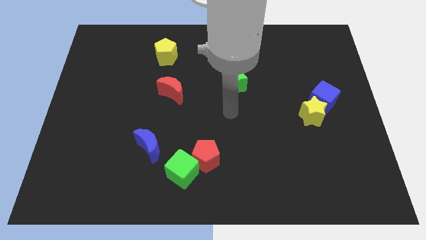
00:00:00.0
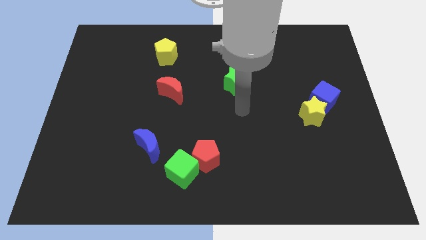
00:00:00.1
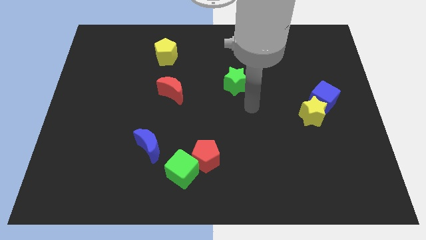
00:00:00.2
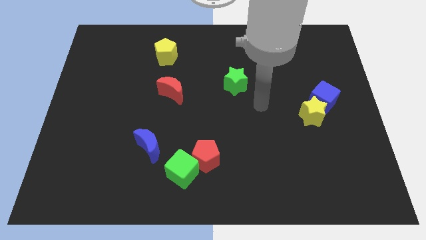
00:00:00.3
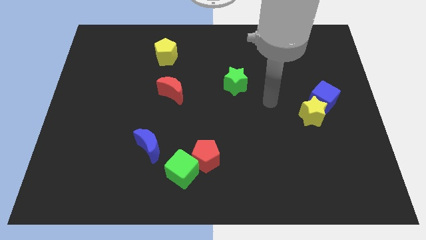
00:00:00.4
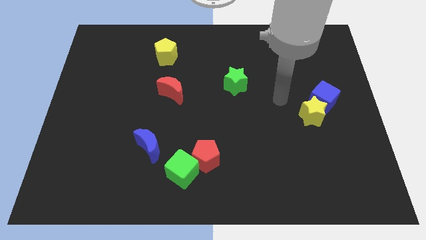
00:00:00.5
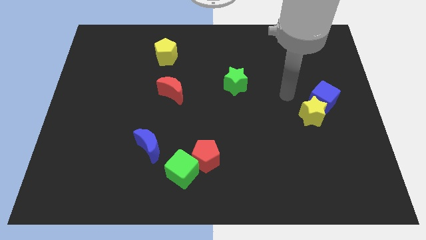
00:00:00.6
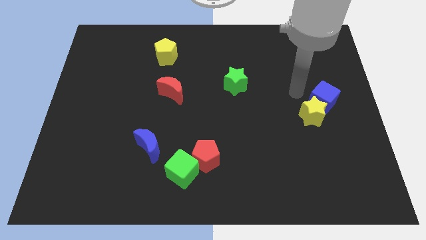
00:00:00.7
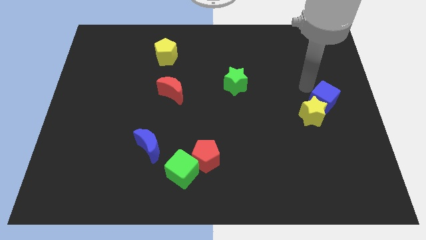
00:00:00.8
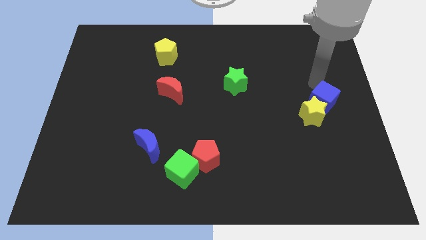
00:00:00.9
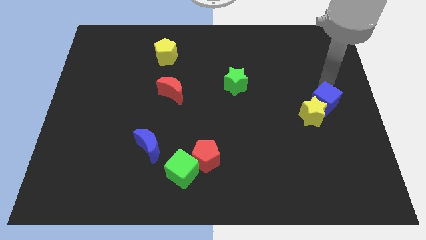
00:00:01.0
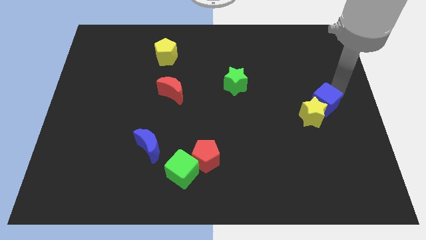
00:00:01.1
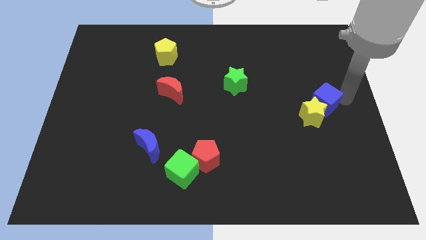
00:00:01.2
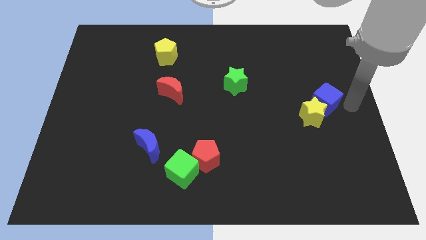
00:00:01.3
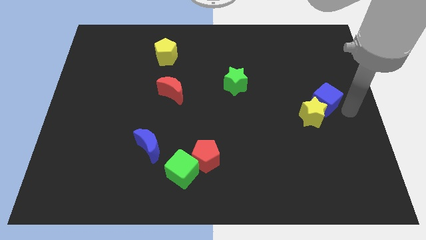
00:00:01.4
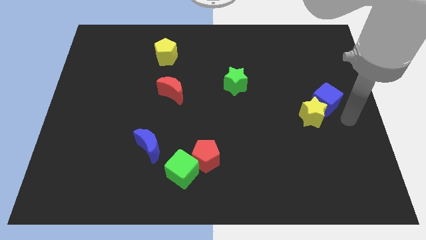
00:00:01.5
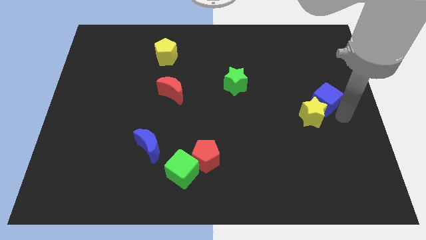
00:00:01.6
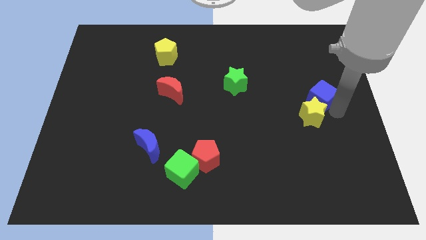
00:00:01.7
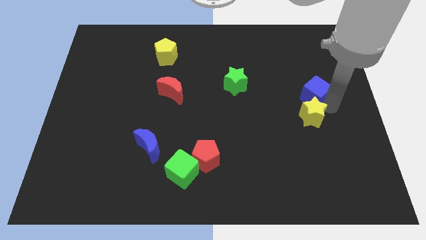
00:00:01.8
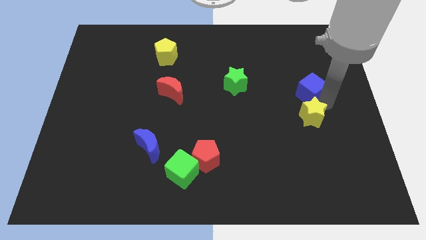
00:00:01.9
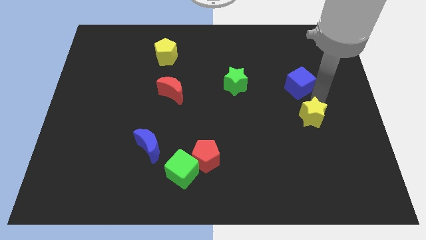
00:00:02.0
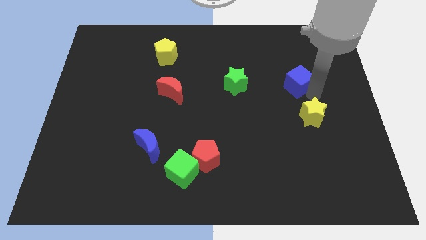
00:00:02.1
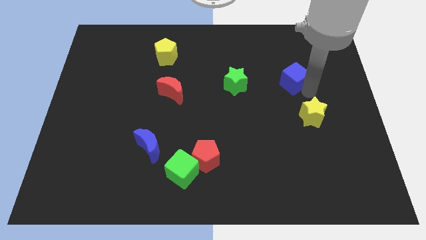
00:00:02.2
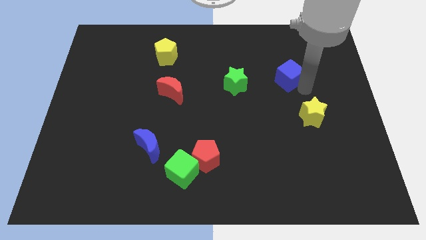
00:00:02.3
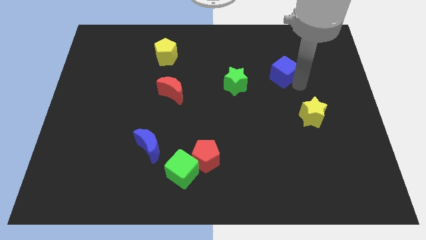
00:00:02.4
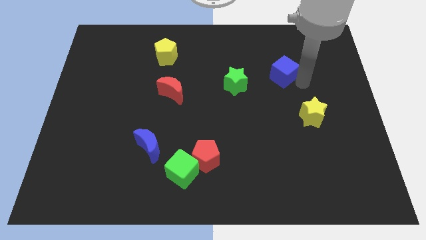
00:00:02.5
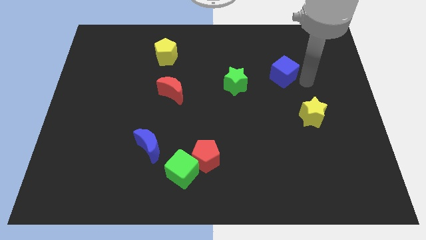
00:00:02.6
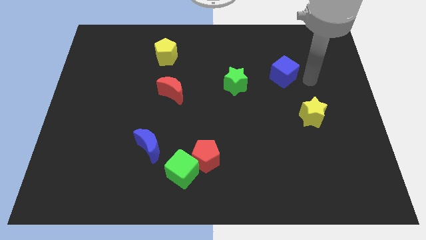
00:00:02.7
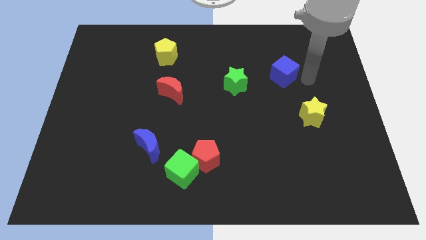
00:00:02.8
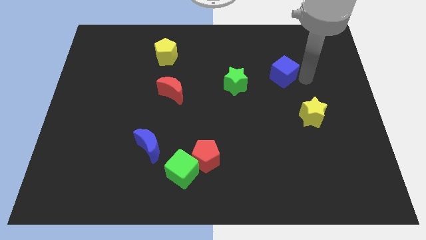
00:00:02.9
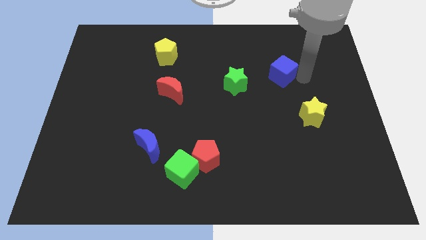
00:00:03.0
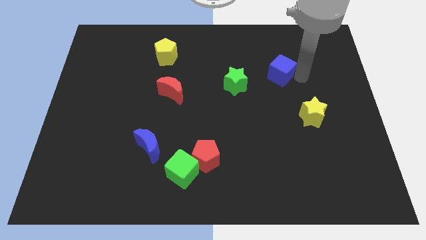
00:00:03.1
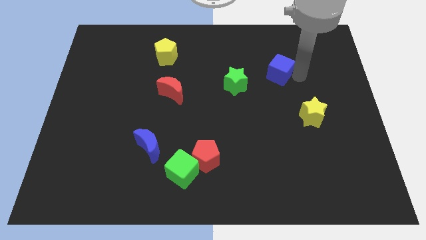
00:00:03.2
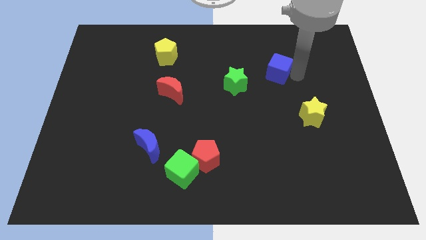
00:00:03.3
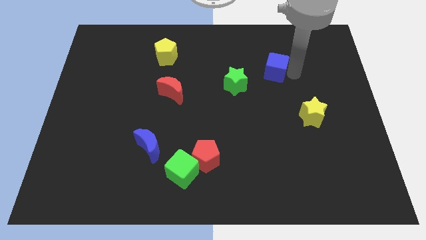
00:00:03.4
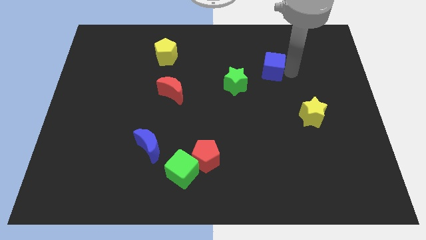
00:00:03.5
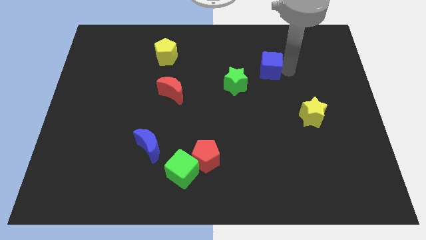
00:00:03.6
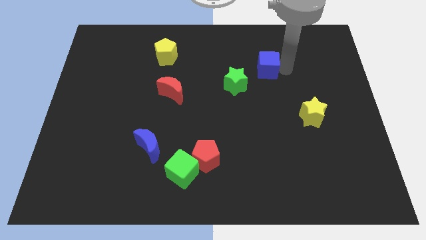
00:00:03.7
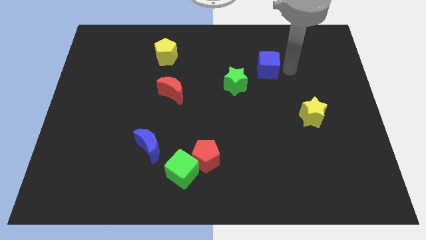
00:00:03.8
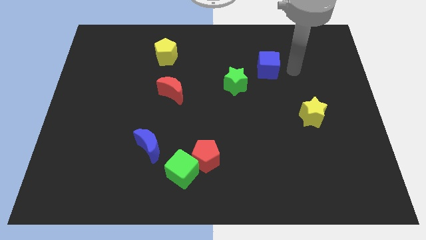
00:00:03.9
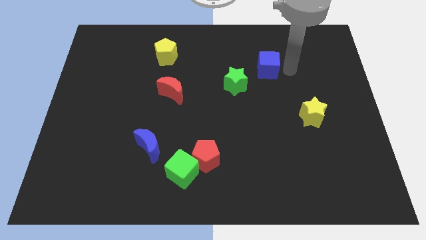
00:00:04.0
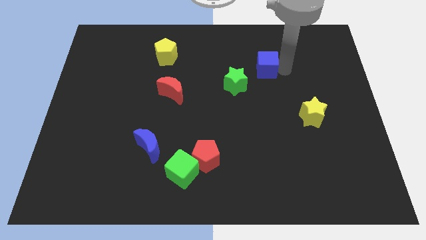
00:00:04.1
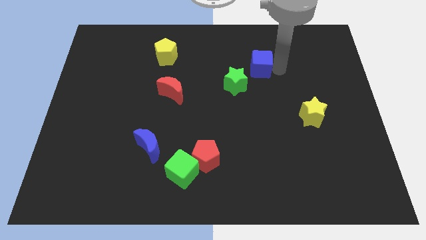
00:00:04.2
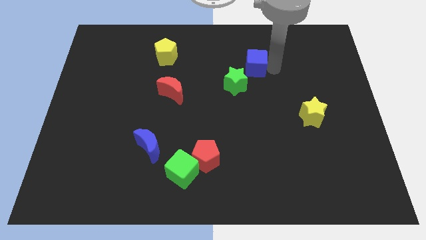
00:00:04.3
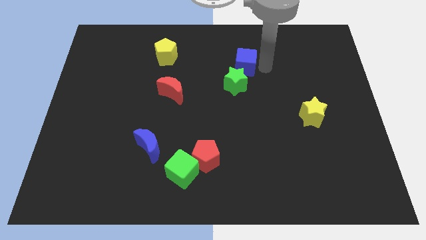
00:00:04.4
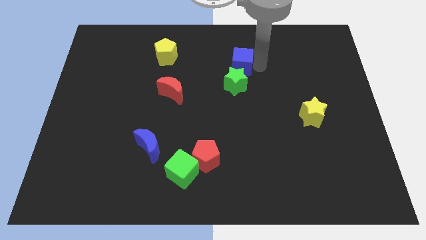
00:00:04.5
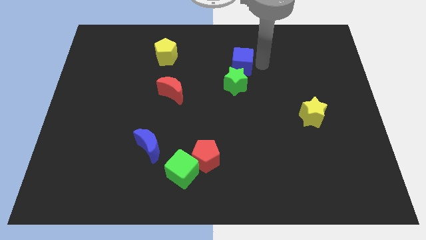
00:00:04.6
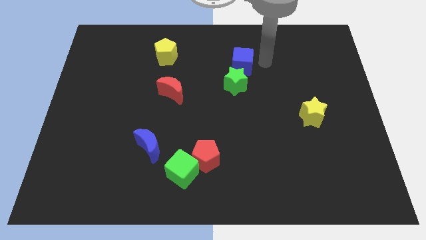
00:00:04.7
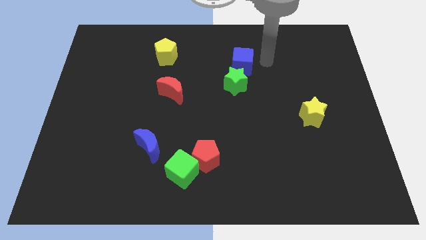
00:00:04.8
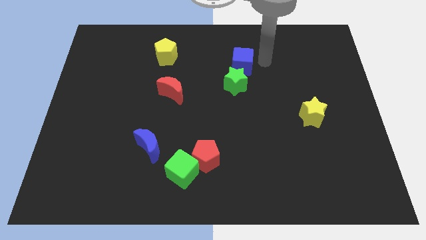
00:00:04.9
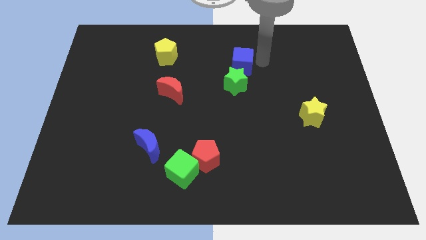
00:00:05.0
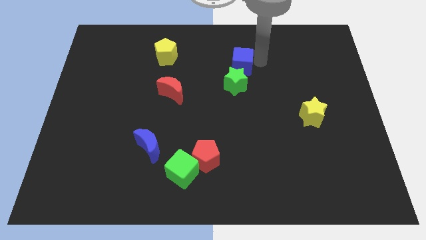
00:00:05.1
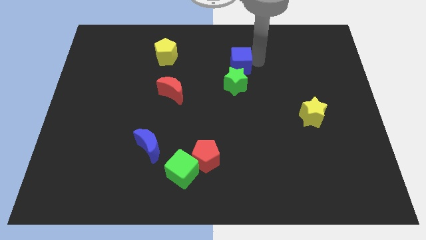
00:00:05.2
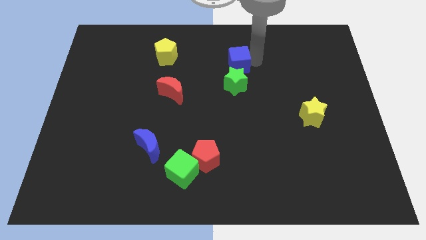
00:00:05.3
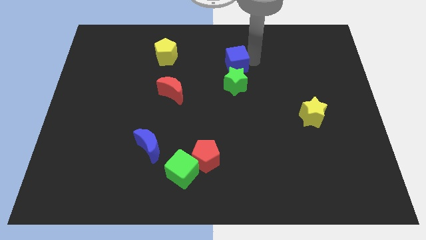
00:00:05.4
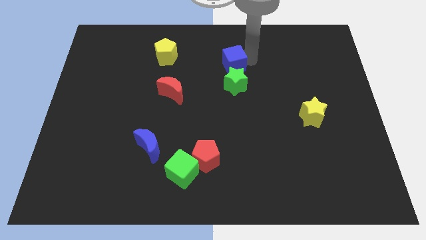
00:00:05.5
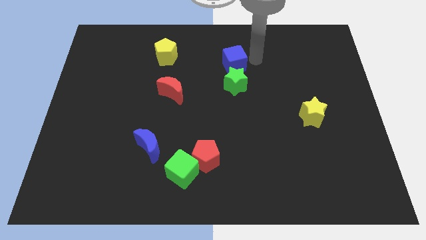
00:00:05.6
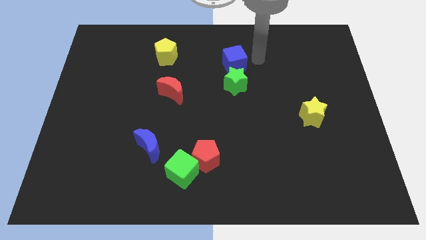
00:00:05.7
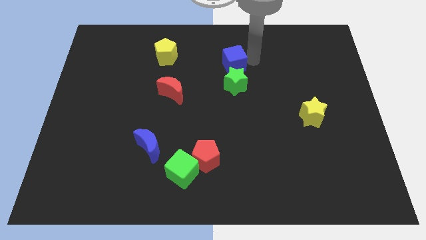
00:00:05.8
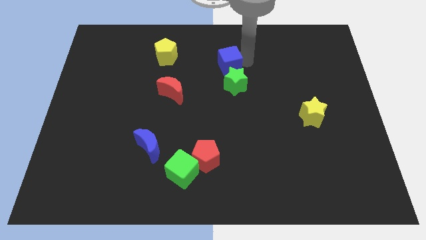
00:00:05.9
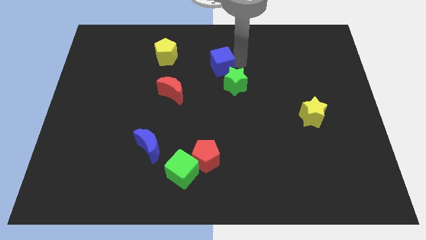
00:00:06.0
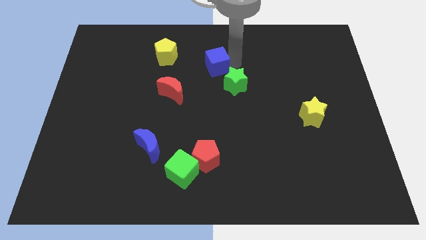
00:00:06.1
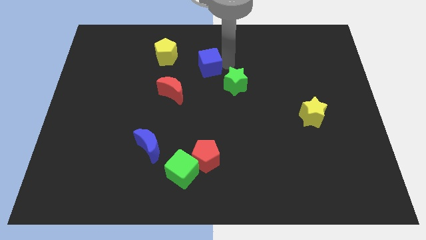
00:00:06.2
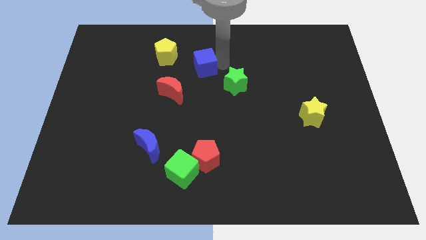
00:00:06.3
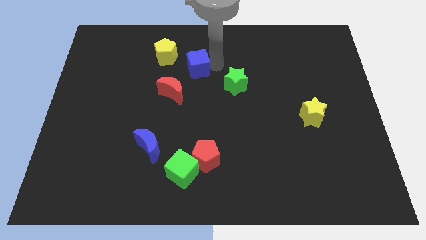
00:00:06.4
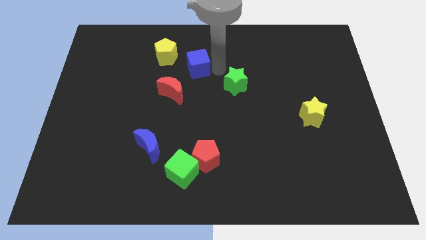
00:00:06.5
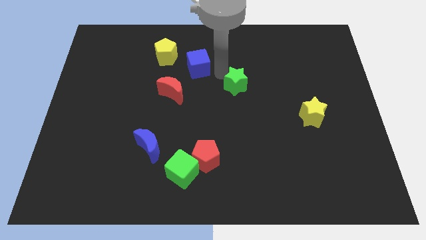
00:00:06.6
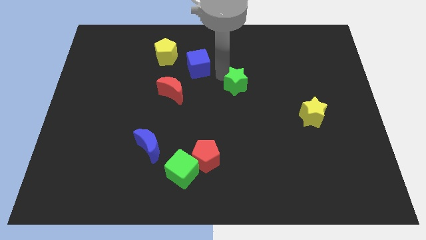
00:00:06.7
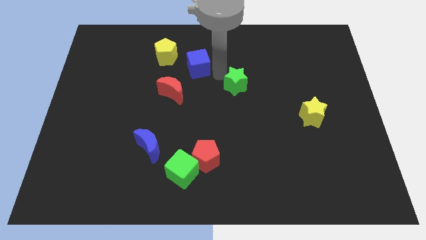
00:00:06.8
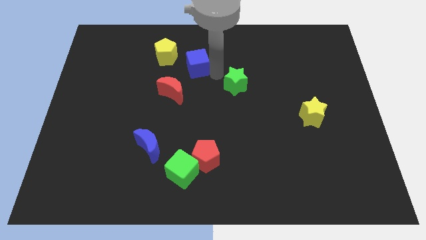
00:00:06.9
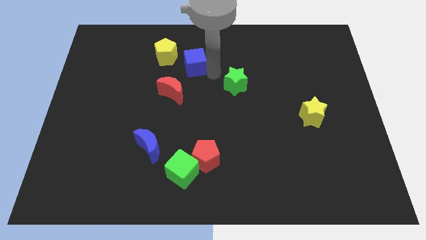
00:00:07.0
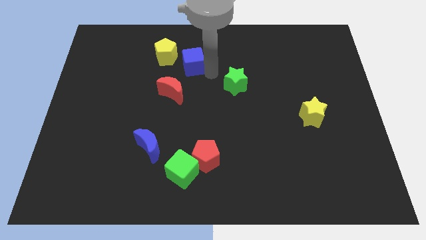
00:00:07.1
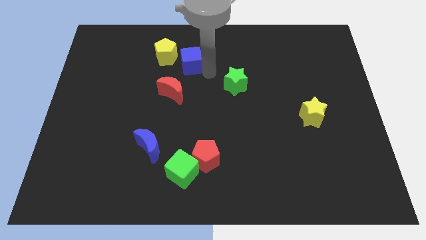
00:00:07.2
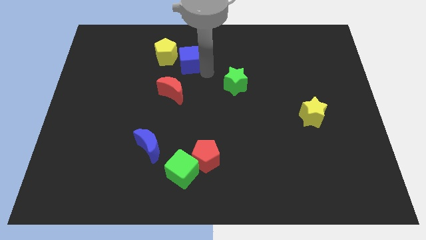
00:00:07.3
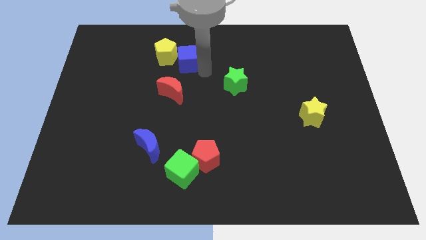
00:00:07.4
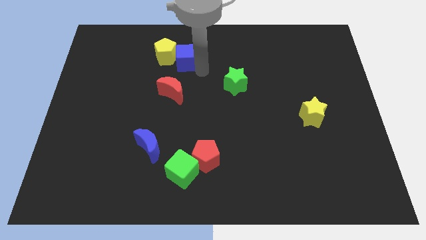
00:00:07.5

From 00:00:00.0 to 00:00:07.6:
put the blue cube close to the yellow pentagon

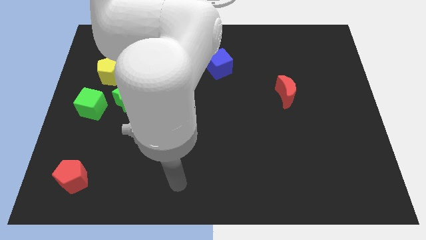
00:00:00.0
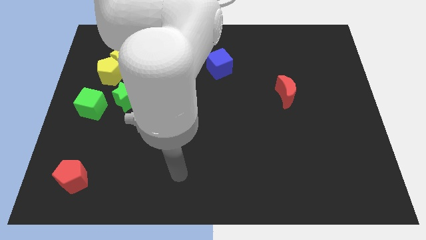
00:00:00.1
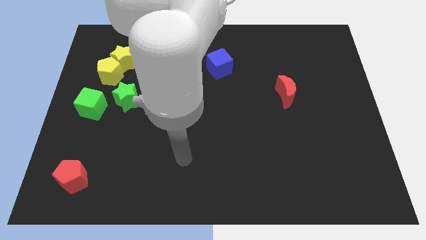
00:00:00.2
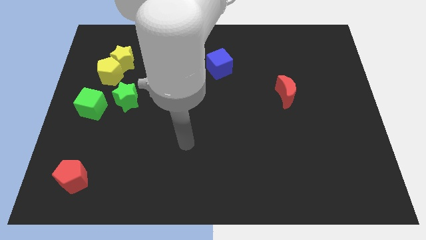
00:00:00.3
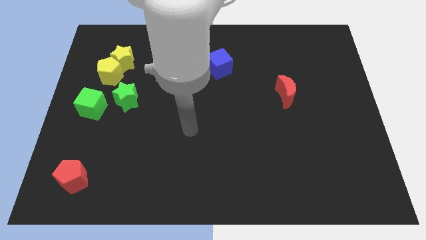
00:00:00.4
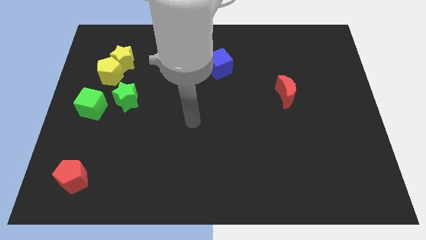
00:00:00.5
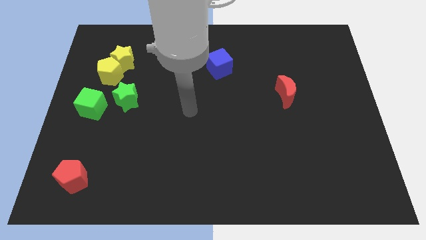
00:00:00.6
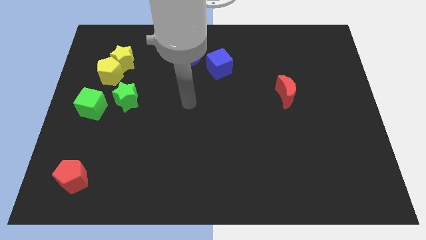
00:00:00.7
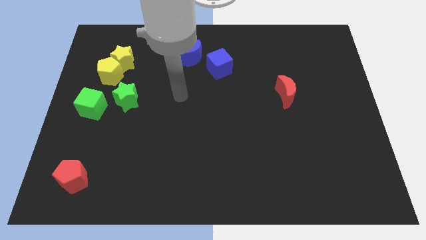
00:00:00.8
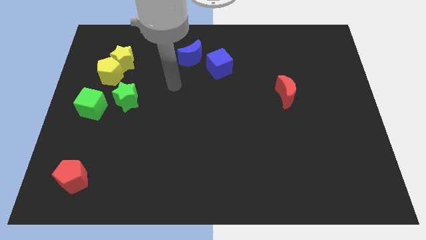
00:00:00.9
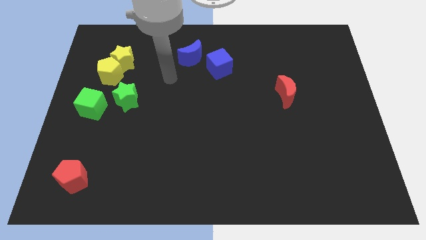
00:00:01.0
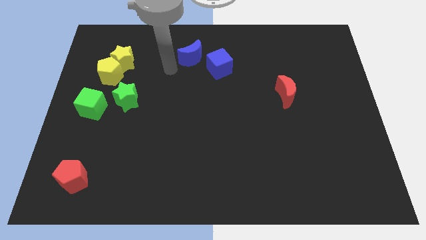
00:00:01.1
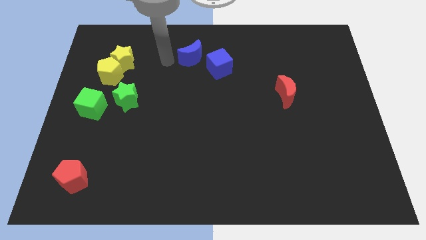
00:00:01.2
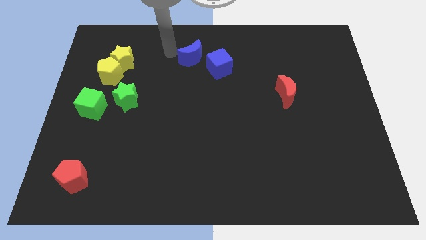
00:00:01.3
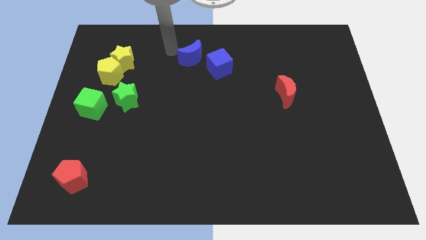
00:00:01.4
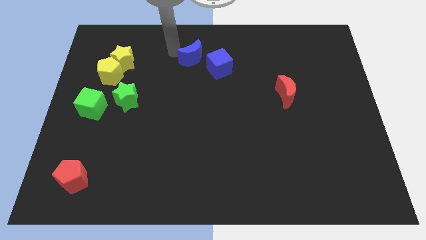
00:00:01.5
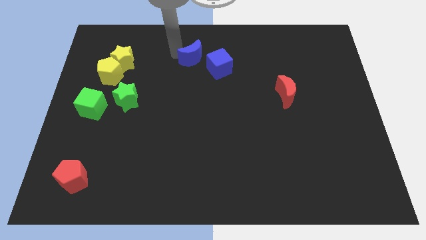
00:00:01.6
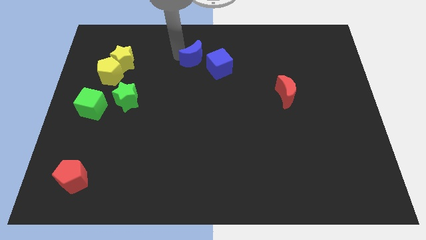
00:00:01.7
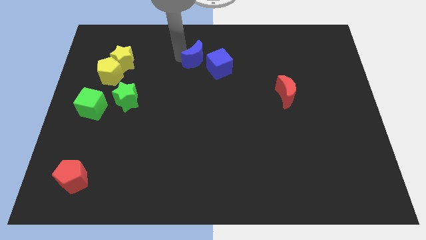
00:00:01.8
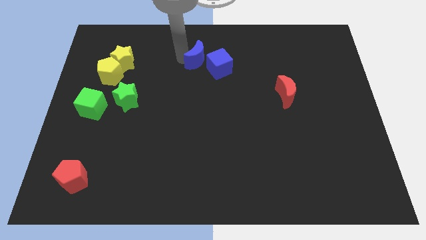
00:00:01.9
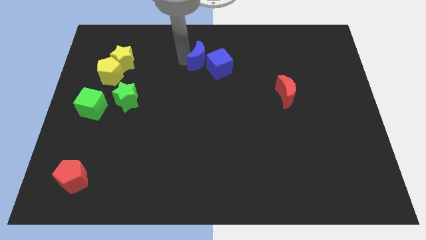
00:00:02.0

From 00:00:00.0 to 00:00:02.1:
push the blue moon to the blue cube
